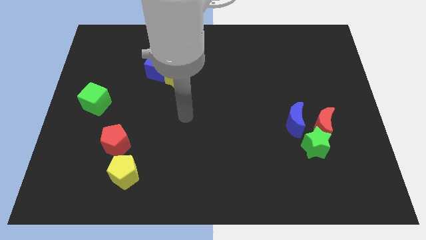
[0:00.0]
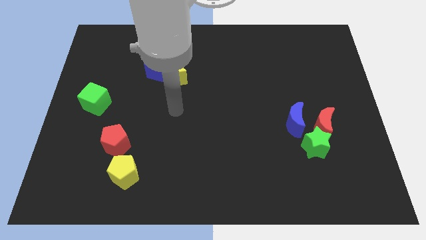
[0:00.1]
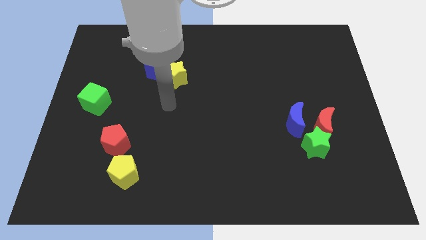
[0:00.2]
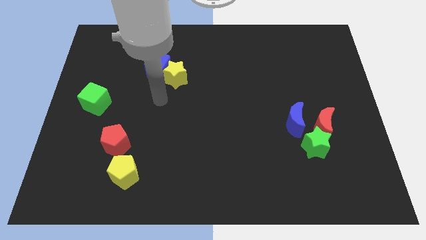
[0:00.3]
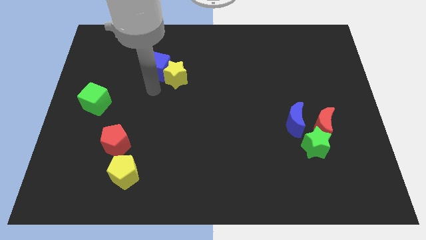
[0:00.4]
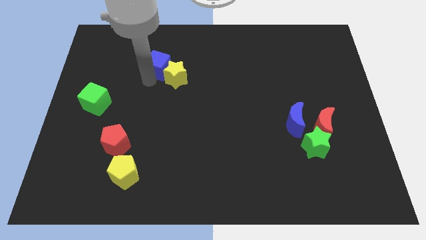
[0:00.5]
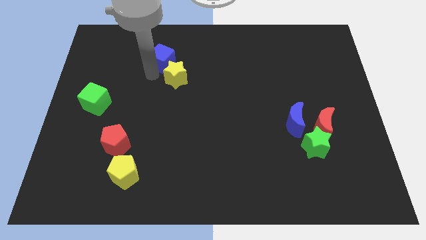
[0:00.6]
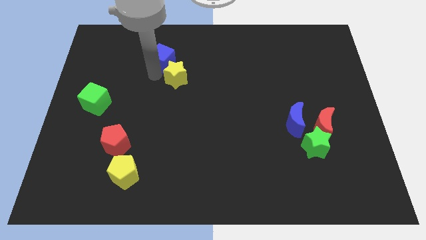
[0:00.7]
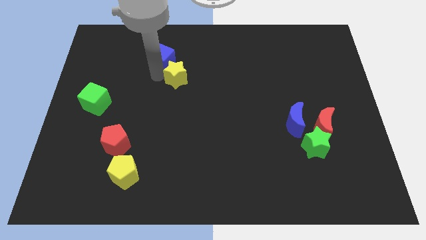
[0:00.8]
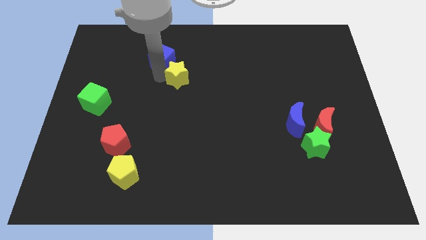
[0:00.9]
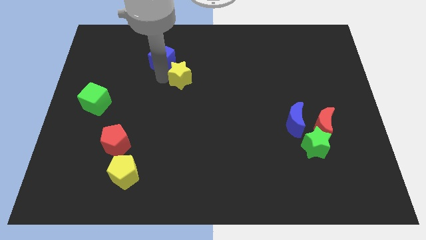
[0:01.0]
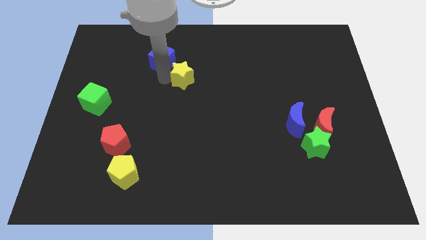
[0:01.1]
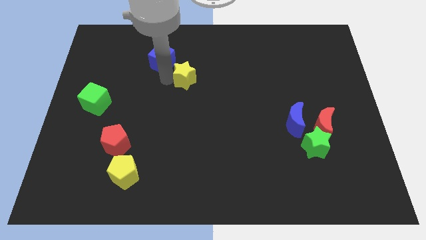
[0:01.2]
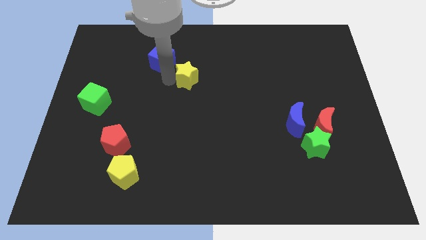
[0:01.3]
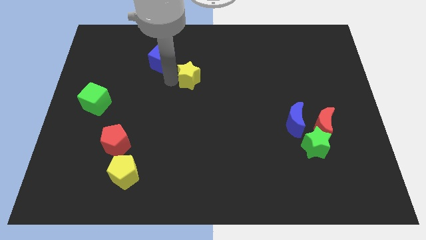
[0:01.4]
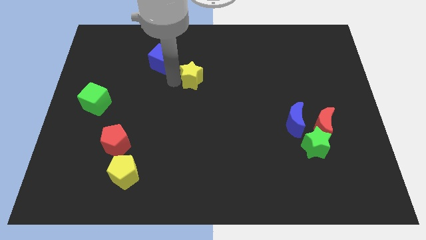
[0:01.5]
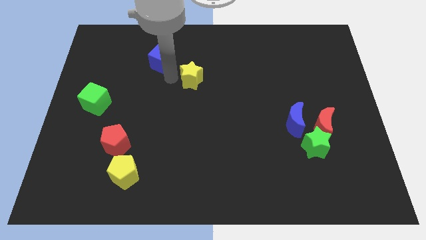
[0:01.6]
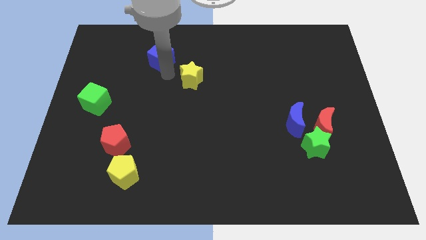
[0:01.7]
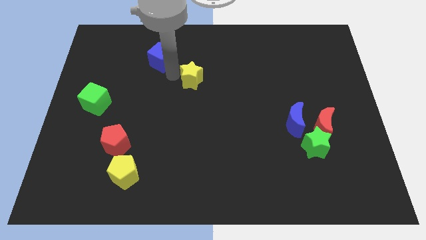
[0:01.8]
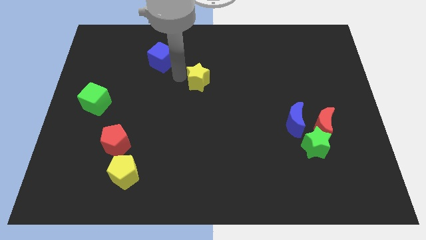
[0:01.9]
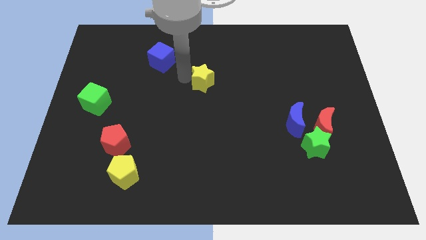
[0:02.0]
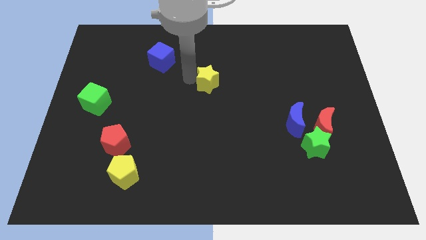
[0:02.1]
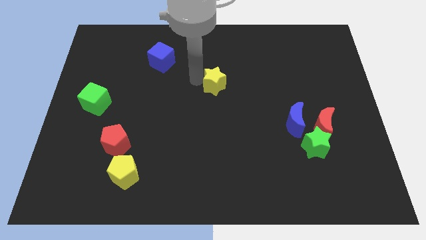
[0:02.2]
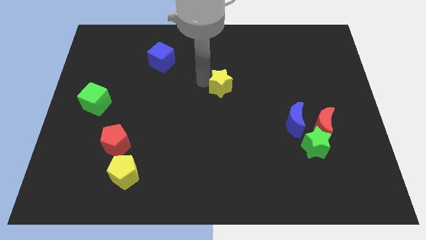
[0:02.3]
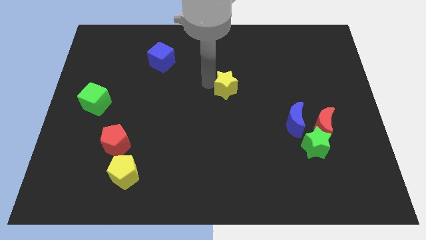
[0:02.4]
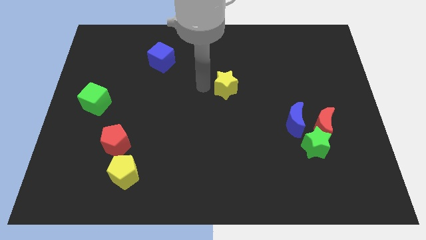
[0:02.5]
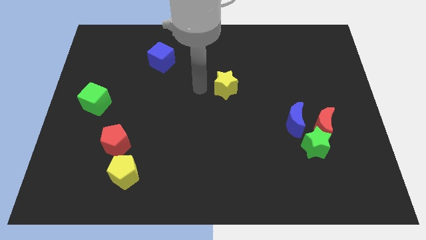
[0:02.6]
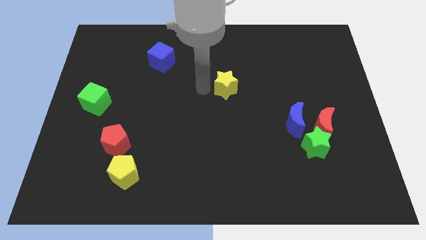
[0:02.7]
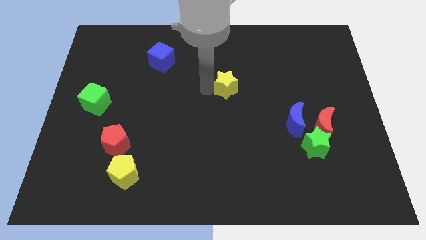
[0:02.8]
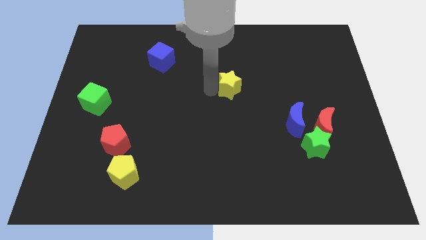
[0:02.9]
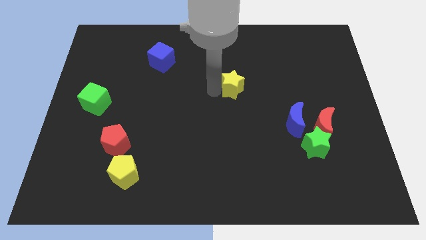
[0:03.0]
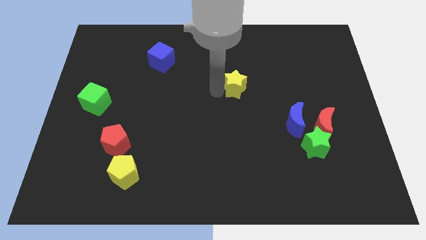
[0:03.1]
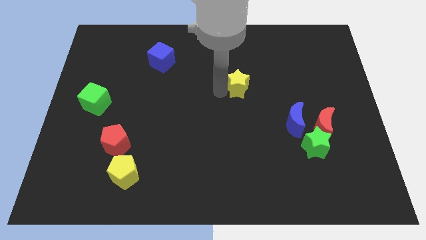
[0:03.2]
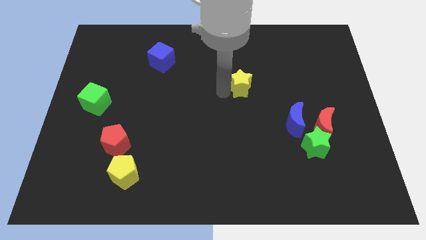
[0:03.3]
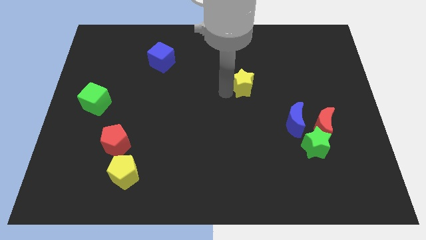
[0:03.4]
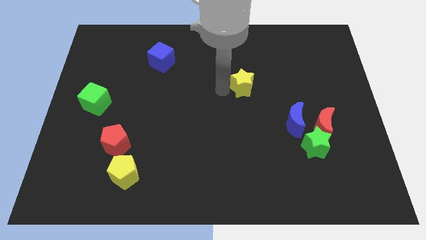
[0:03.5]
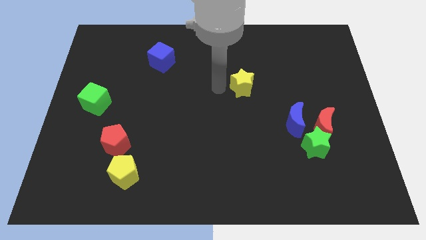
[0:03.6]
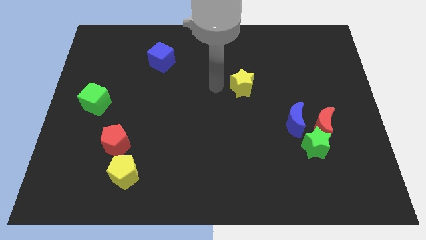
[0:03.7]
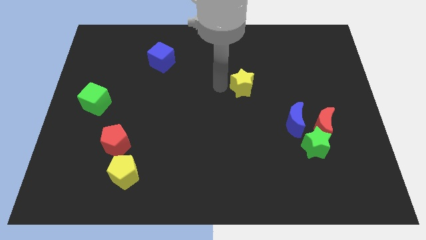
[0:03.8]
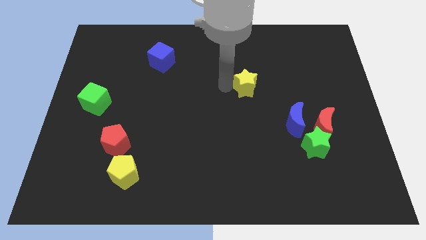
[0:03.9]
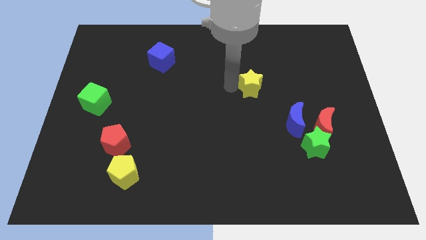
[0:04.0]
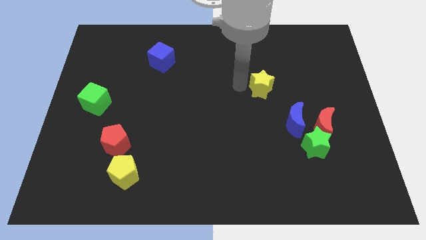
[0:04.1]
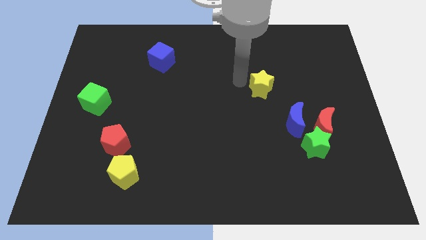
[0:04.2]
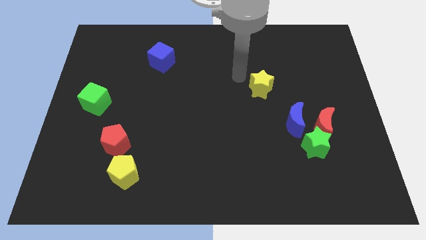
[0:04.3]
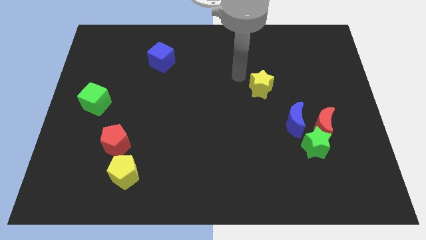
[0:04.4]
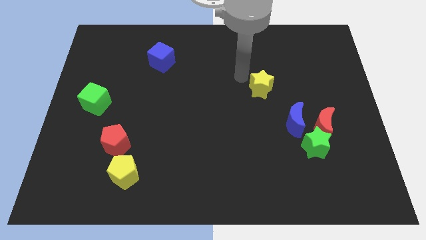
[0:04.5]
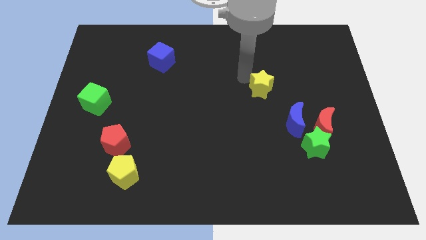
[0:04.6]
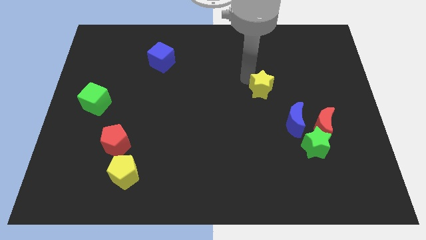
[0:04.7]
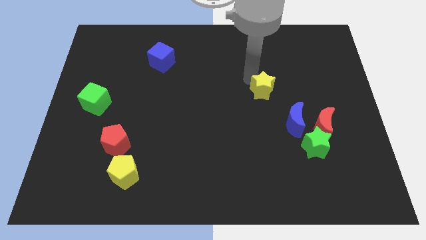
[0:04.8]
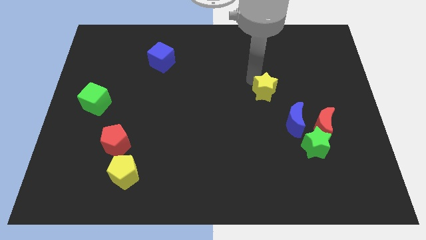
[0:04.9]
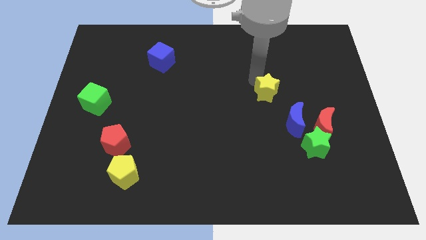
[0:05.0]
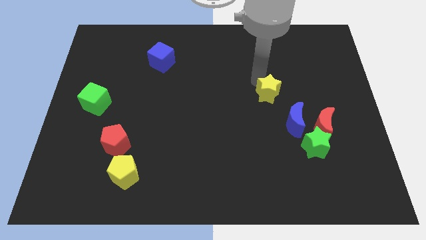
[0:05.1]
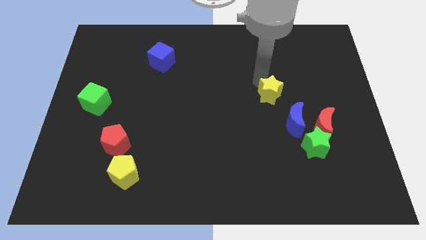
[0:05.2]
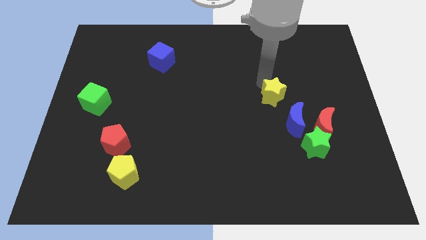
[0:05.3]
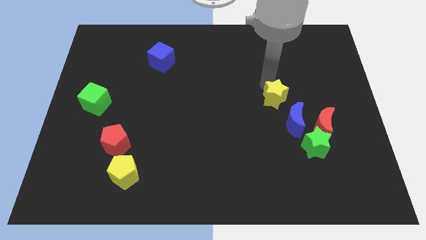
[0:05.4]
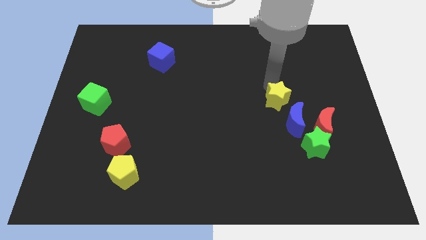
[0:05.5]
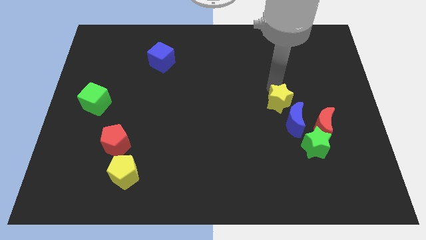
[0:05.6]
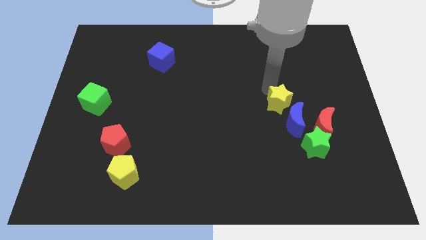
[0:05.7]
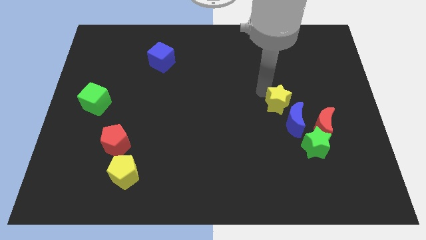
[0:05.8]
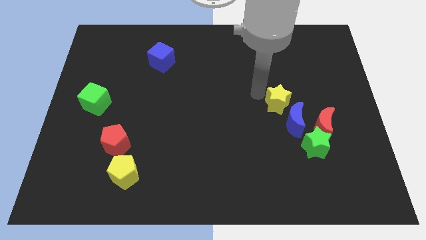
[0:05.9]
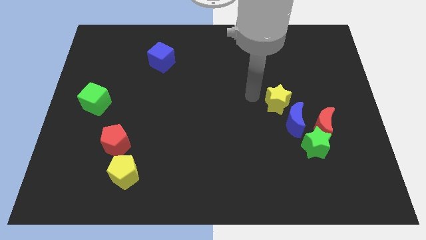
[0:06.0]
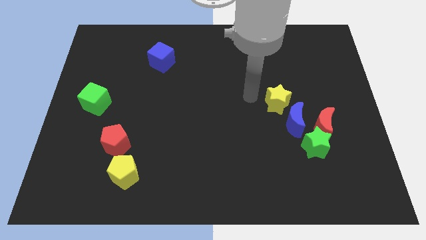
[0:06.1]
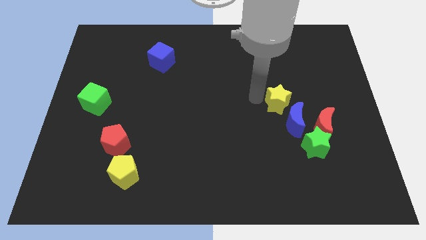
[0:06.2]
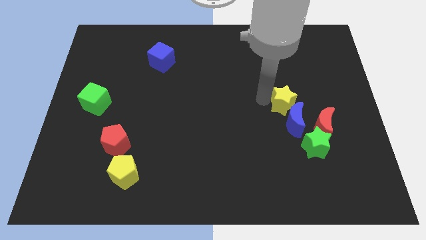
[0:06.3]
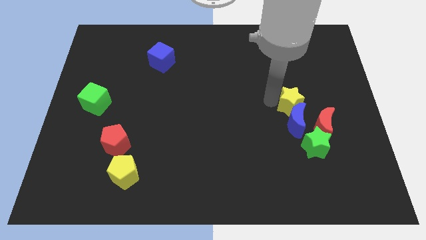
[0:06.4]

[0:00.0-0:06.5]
push the yellow star above the green star

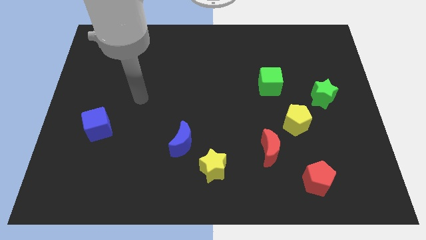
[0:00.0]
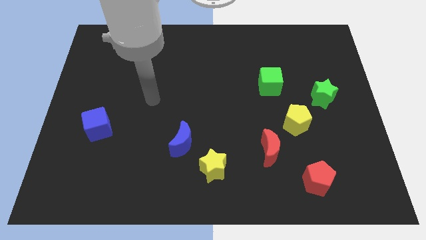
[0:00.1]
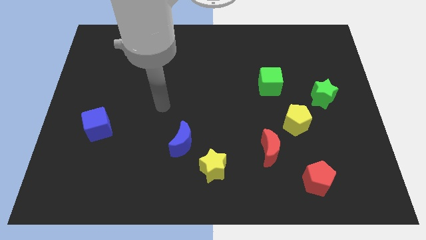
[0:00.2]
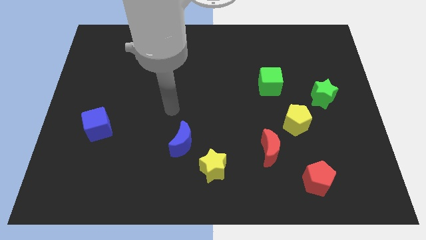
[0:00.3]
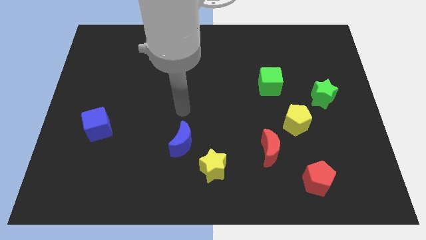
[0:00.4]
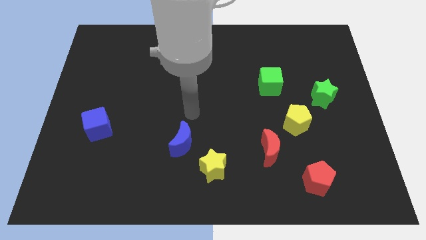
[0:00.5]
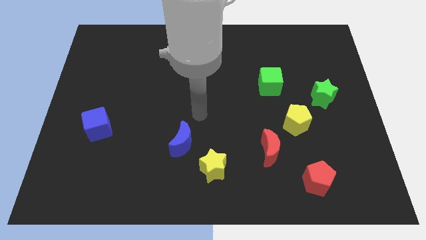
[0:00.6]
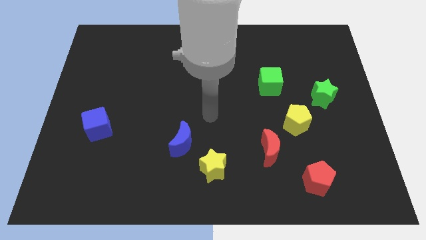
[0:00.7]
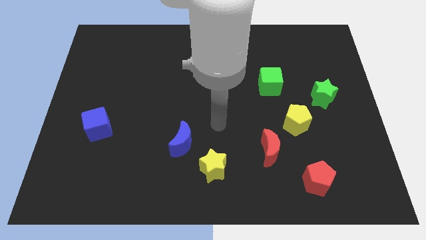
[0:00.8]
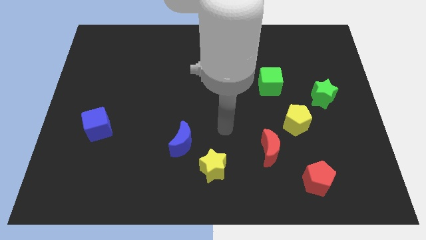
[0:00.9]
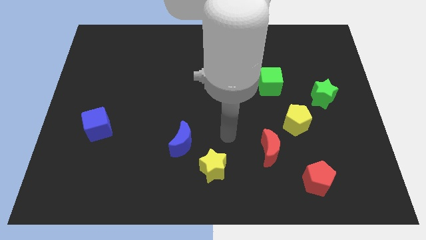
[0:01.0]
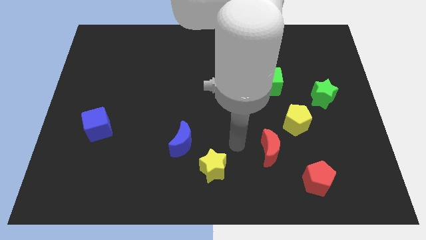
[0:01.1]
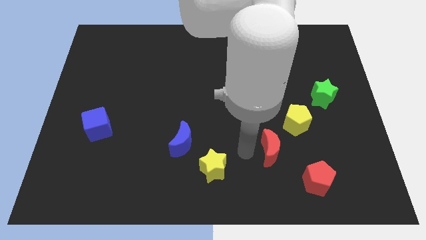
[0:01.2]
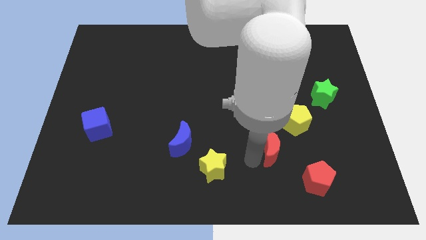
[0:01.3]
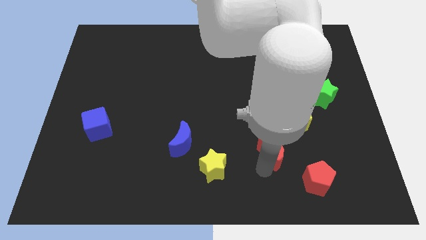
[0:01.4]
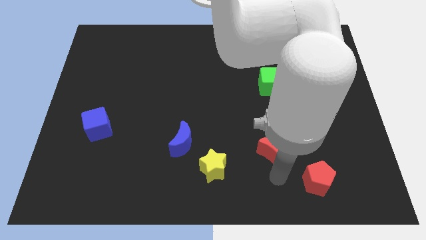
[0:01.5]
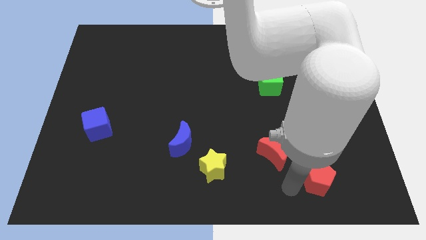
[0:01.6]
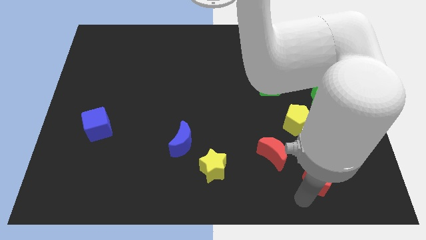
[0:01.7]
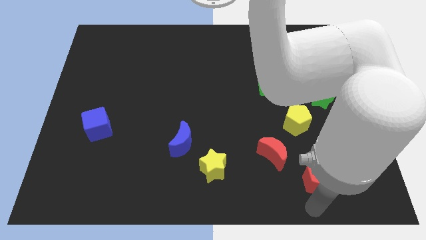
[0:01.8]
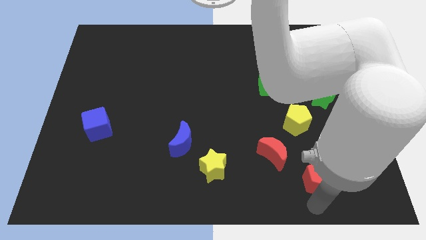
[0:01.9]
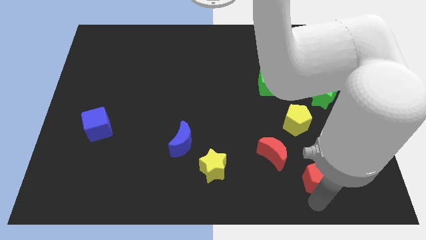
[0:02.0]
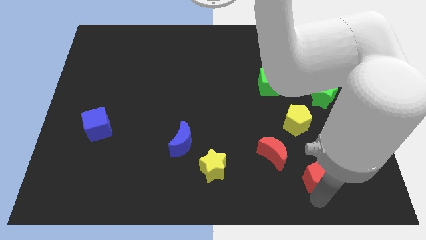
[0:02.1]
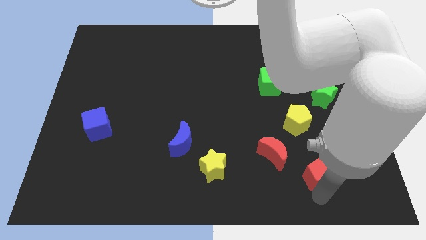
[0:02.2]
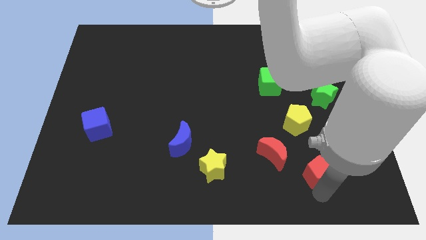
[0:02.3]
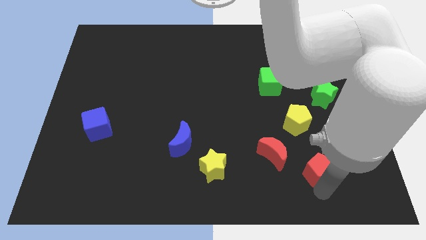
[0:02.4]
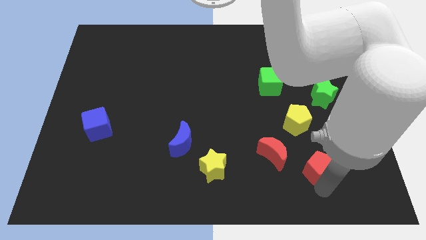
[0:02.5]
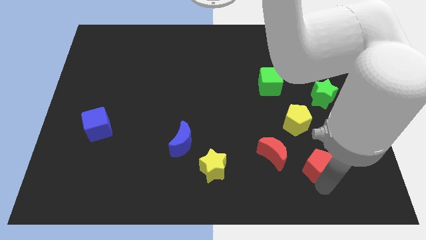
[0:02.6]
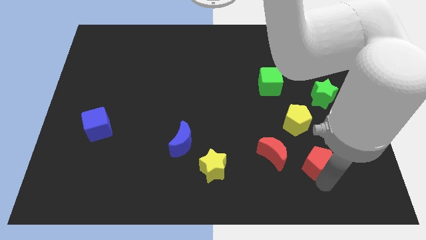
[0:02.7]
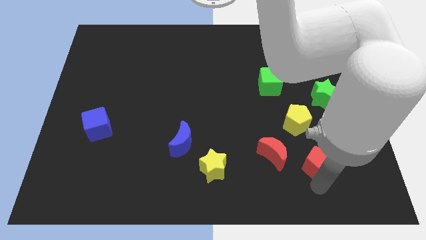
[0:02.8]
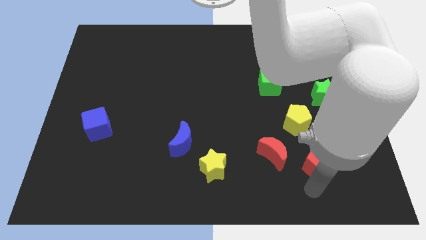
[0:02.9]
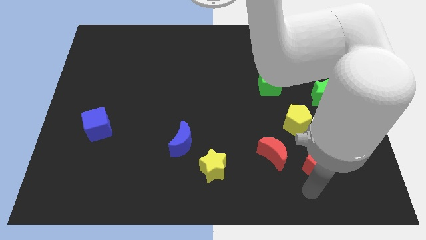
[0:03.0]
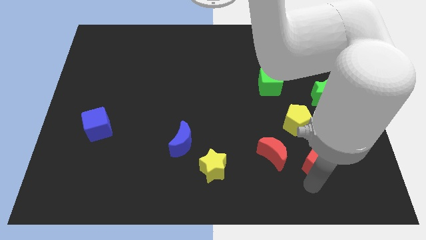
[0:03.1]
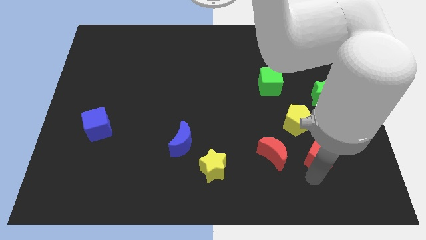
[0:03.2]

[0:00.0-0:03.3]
put the red pentagon diagonally down and to the right of the yellow pentagon
